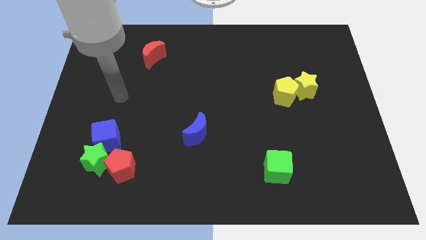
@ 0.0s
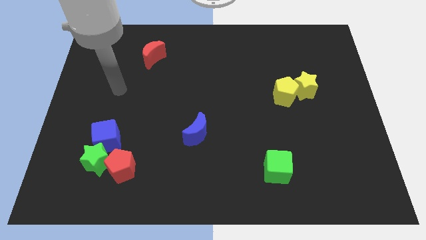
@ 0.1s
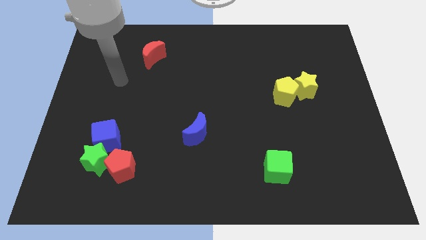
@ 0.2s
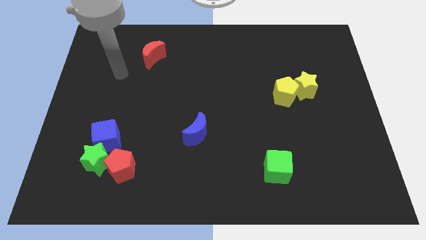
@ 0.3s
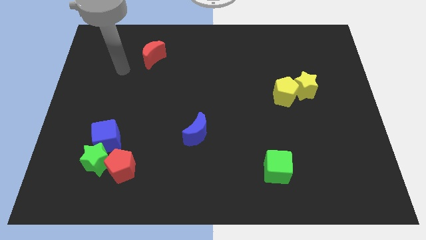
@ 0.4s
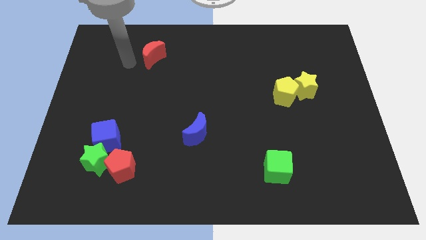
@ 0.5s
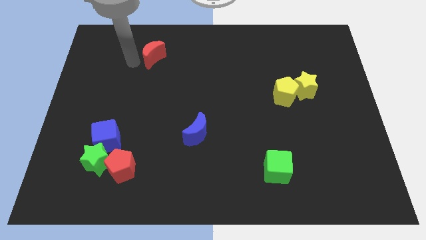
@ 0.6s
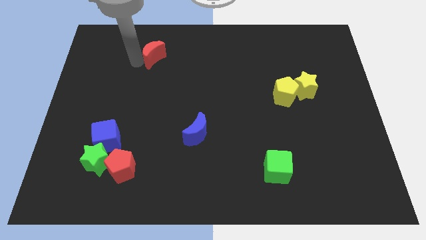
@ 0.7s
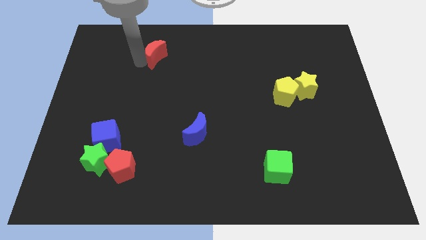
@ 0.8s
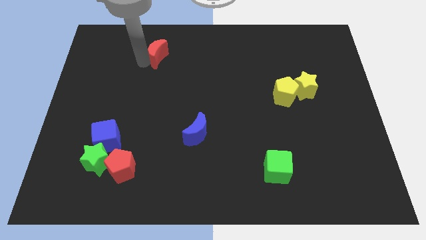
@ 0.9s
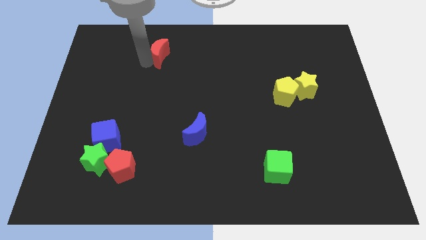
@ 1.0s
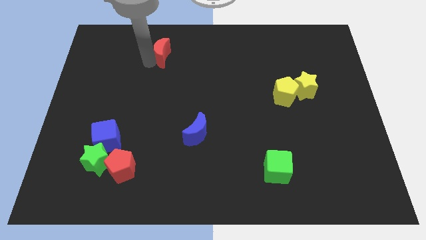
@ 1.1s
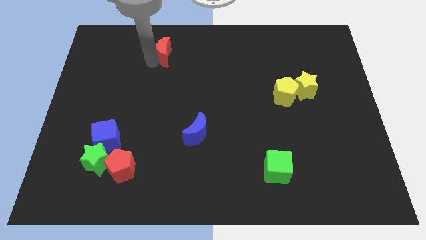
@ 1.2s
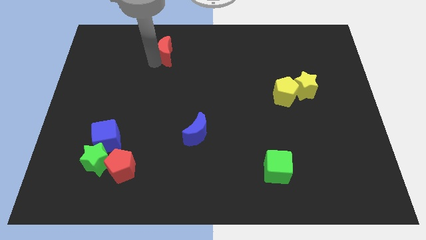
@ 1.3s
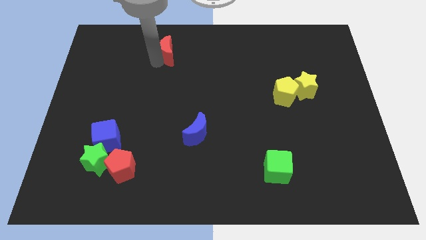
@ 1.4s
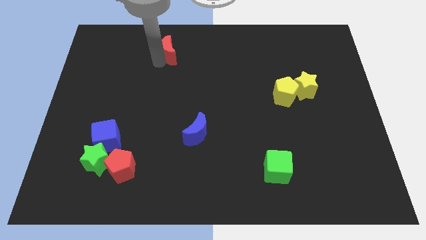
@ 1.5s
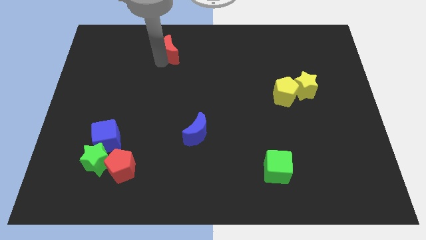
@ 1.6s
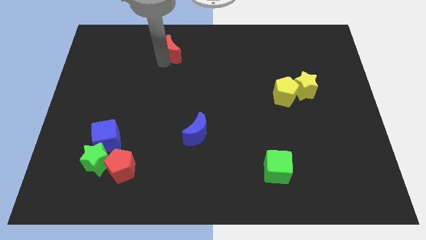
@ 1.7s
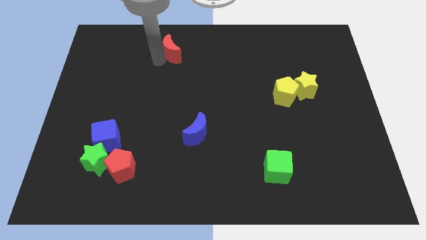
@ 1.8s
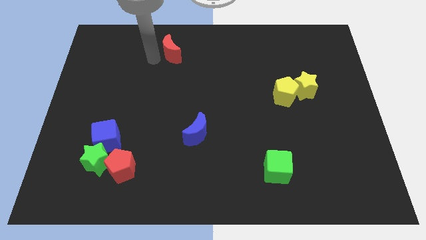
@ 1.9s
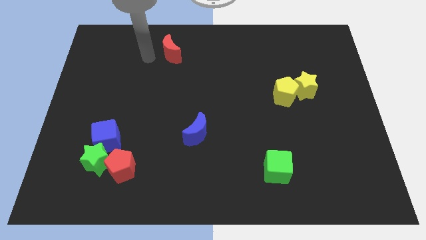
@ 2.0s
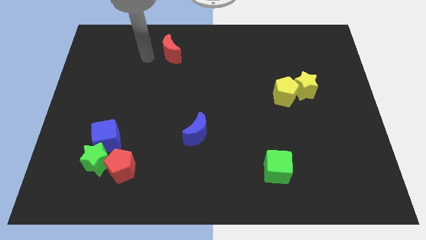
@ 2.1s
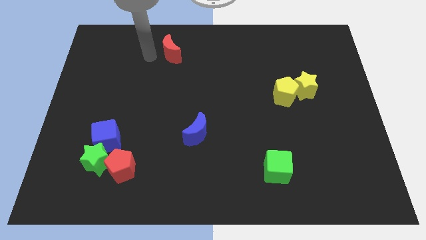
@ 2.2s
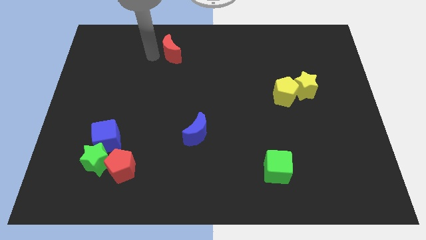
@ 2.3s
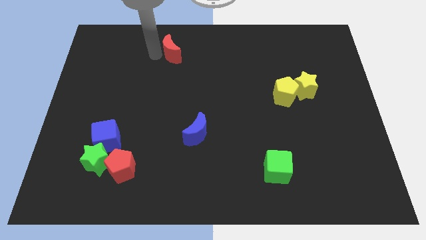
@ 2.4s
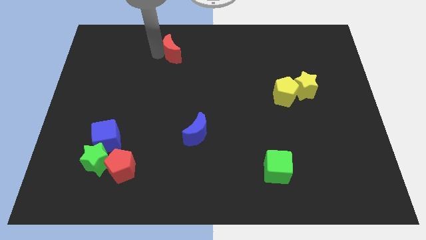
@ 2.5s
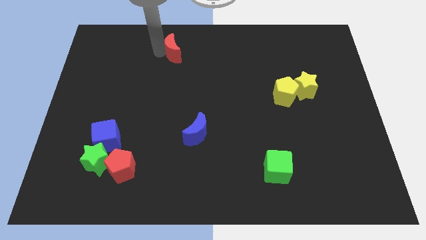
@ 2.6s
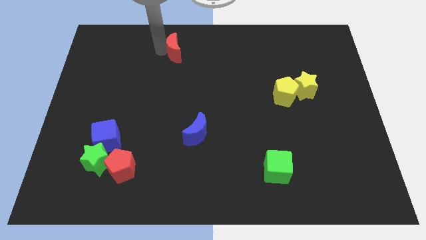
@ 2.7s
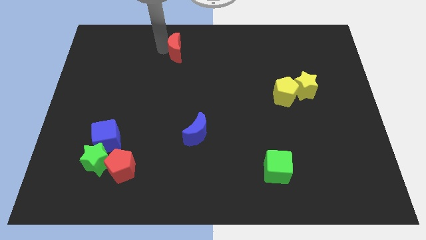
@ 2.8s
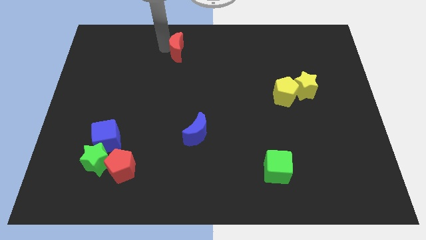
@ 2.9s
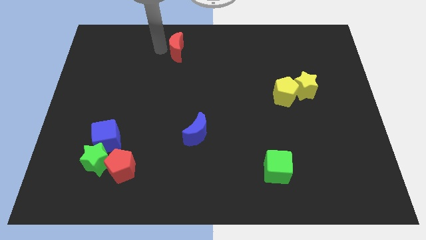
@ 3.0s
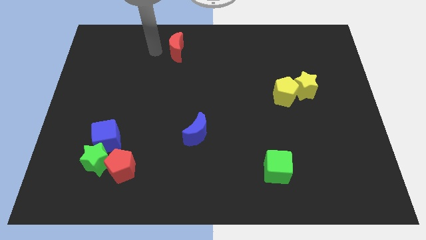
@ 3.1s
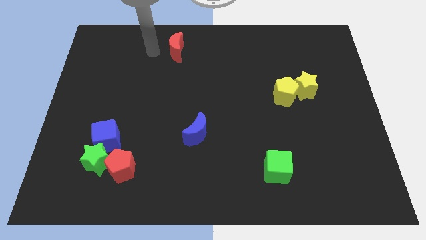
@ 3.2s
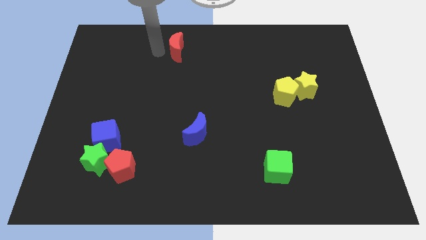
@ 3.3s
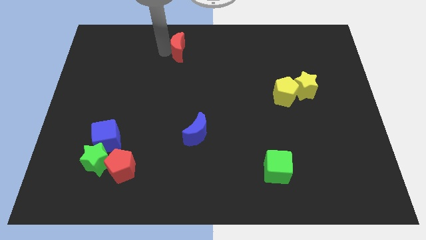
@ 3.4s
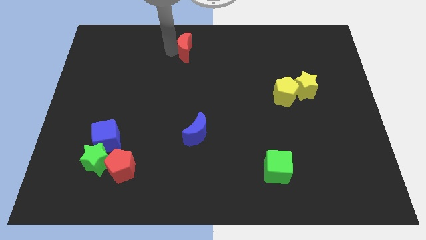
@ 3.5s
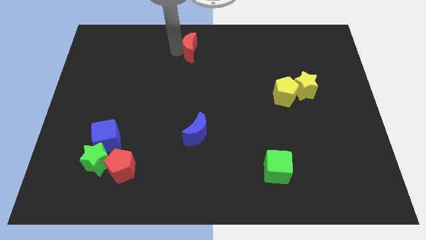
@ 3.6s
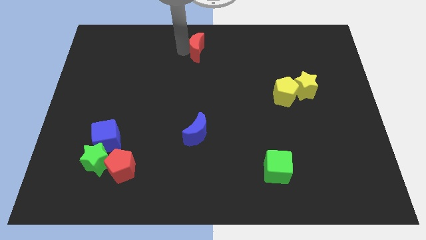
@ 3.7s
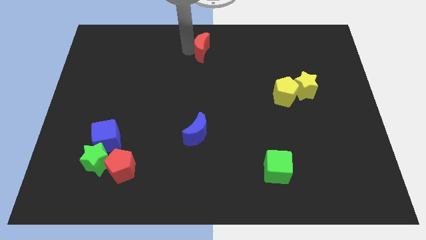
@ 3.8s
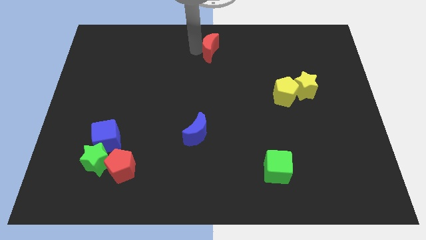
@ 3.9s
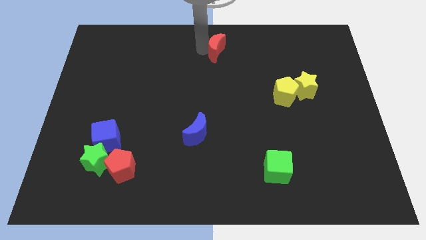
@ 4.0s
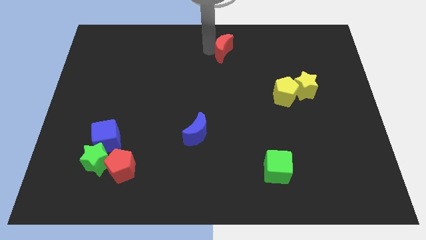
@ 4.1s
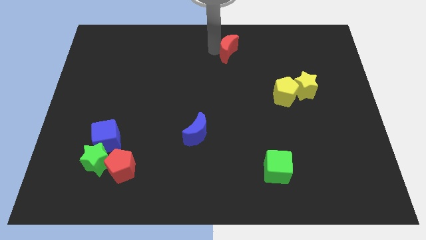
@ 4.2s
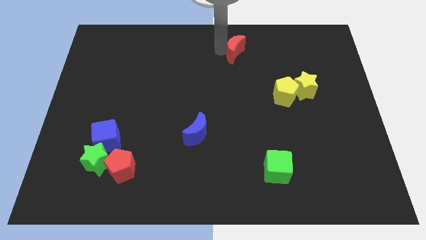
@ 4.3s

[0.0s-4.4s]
slide the red moon to the right

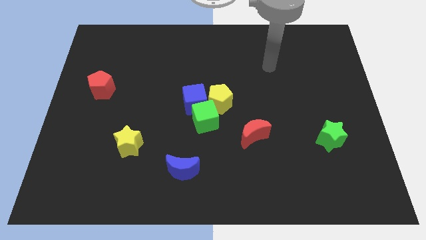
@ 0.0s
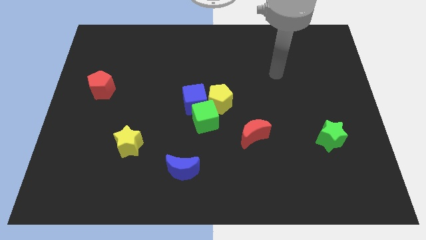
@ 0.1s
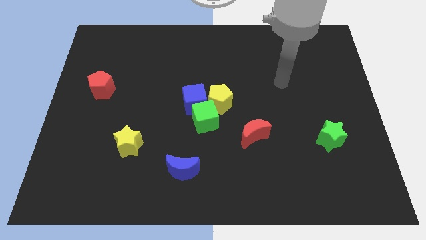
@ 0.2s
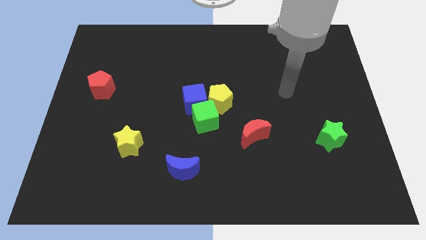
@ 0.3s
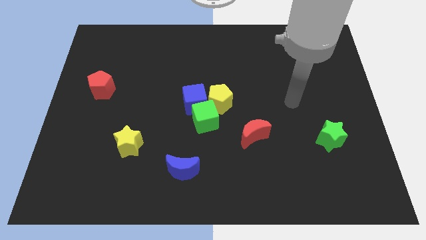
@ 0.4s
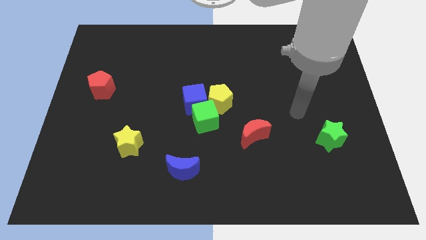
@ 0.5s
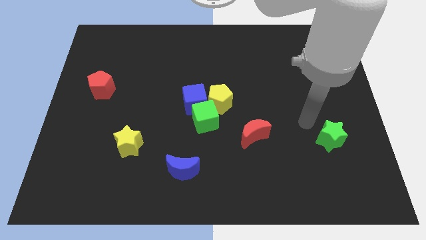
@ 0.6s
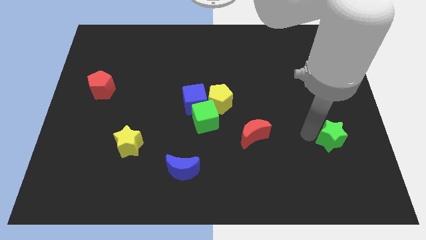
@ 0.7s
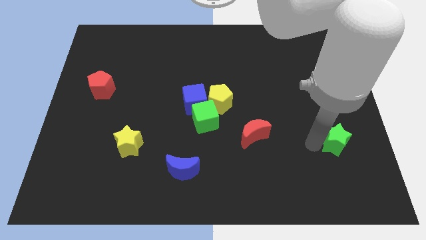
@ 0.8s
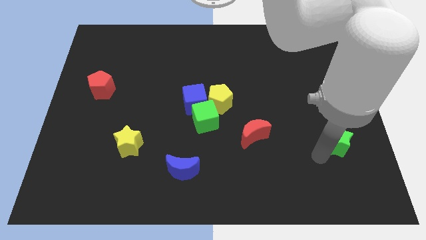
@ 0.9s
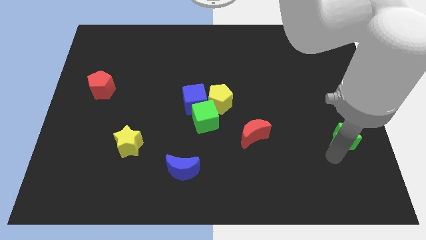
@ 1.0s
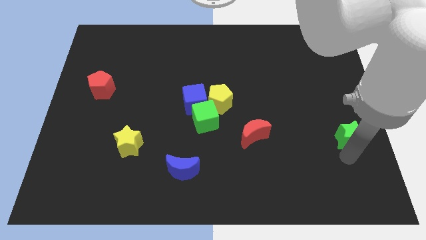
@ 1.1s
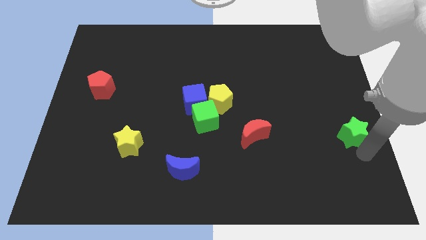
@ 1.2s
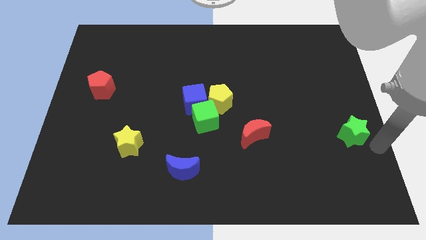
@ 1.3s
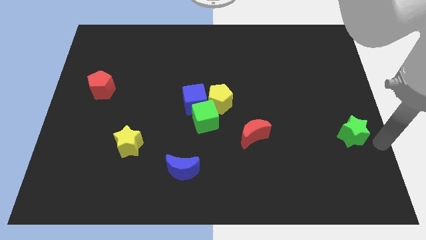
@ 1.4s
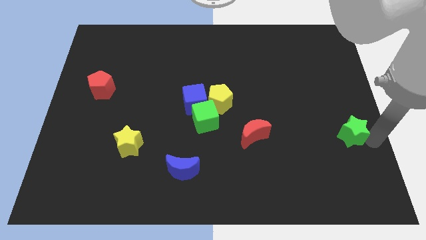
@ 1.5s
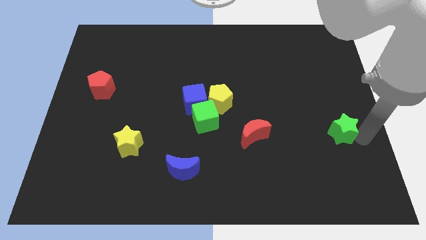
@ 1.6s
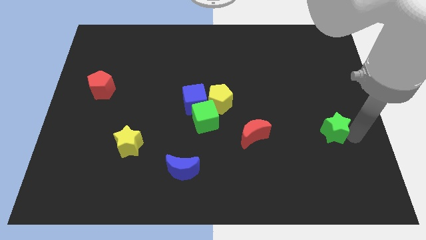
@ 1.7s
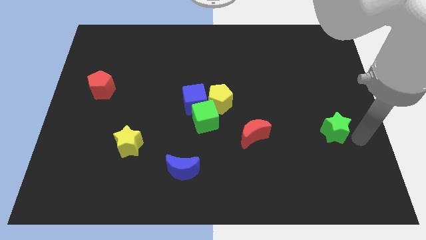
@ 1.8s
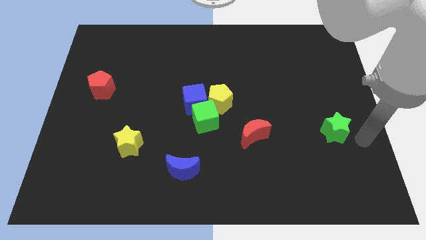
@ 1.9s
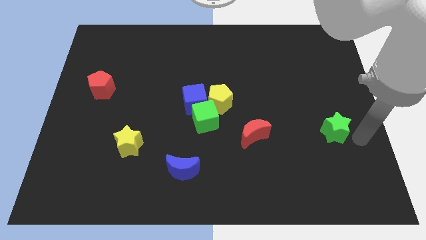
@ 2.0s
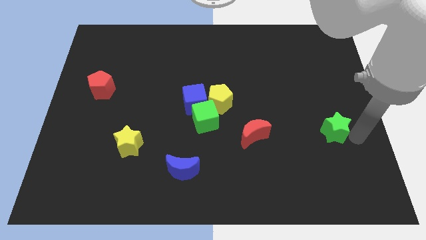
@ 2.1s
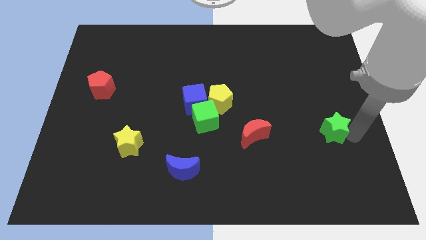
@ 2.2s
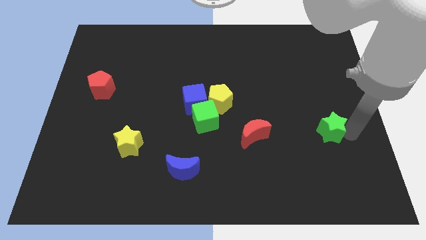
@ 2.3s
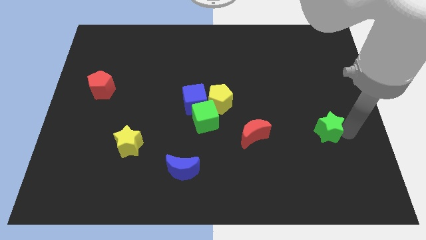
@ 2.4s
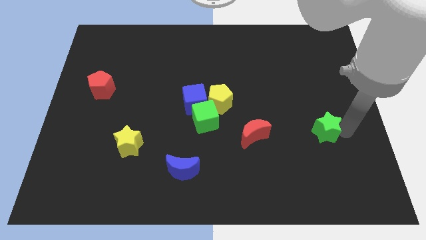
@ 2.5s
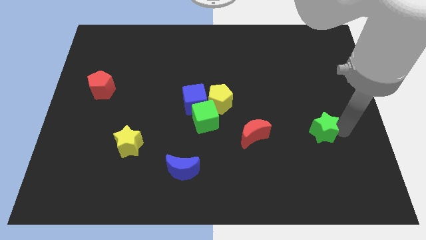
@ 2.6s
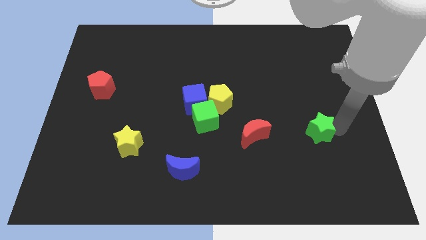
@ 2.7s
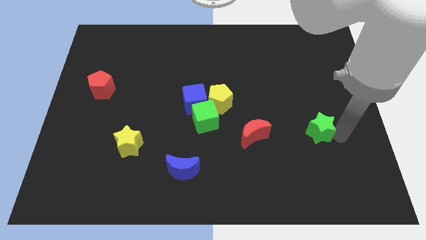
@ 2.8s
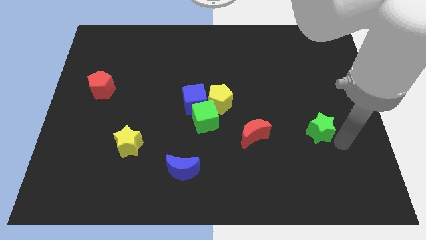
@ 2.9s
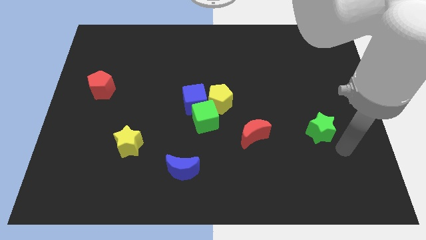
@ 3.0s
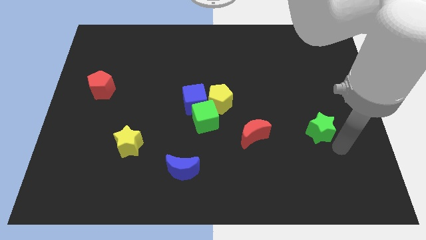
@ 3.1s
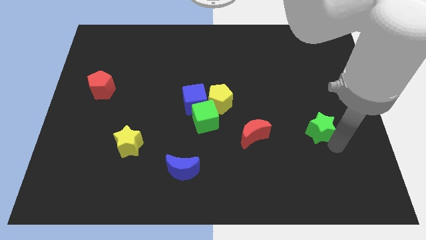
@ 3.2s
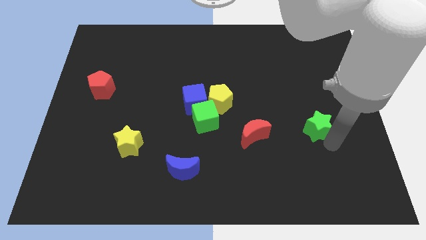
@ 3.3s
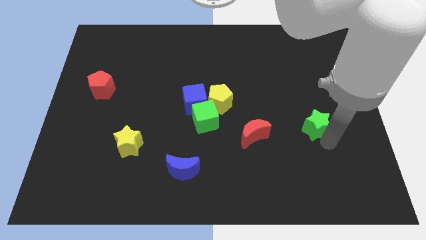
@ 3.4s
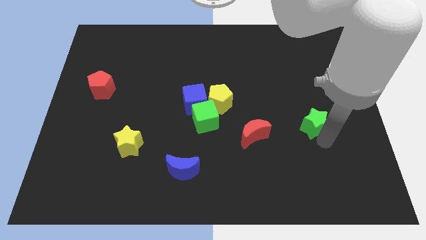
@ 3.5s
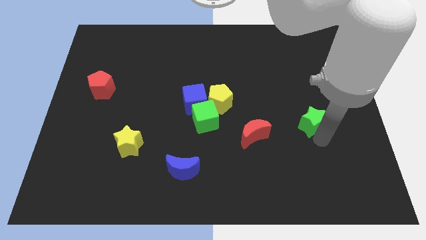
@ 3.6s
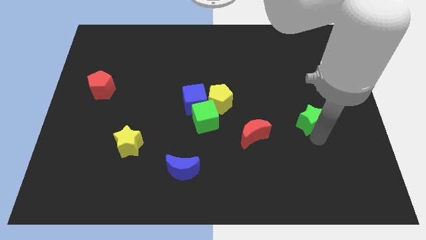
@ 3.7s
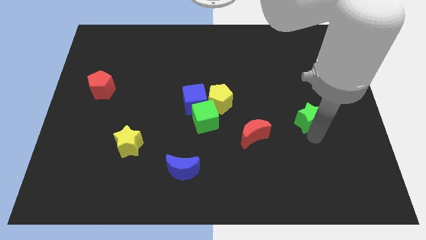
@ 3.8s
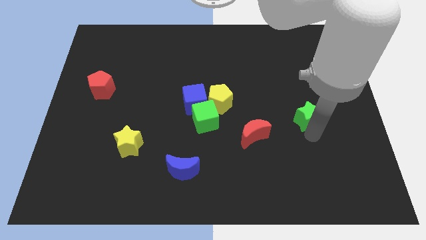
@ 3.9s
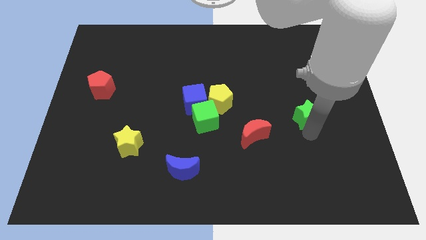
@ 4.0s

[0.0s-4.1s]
push the green star up and then left a little
